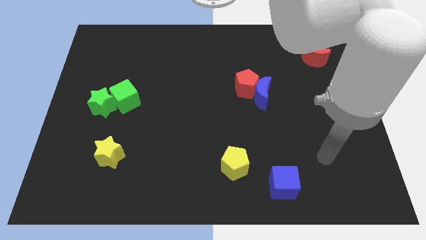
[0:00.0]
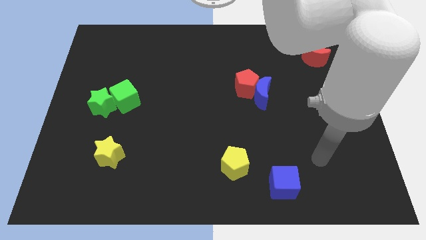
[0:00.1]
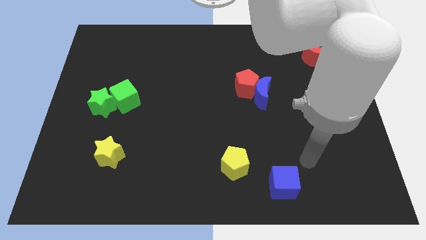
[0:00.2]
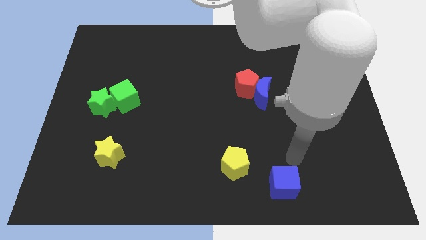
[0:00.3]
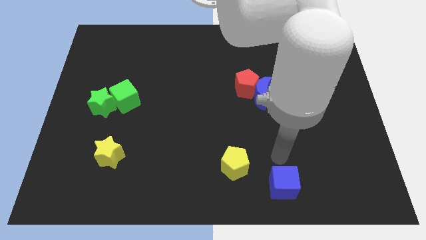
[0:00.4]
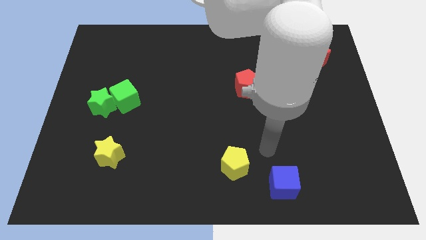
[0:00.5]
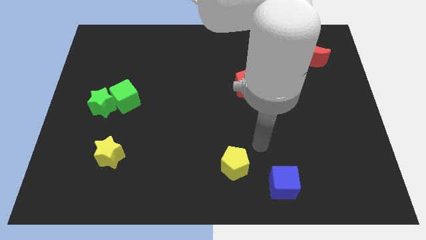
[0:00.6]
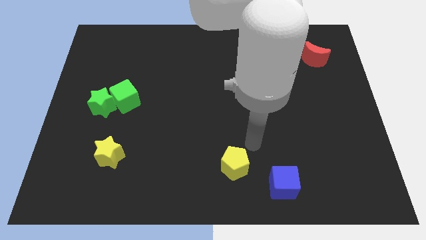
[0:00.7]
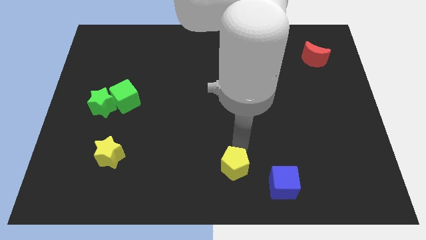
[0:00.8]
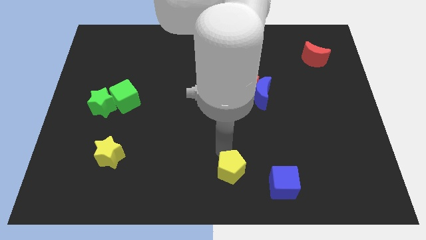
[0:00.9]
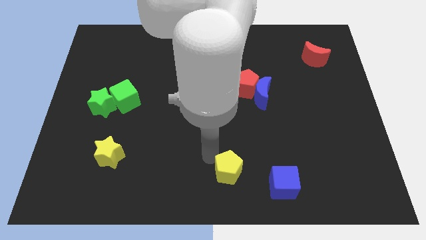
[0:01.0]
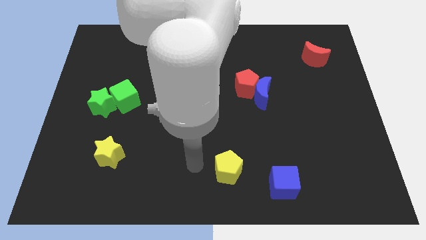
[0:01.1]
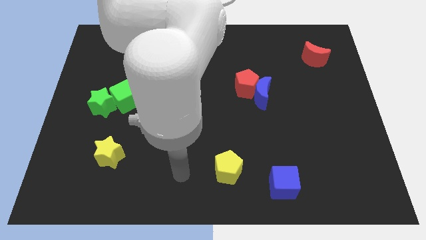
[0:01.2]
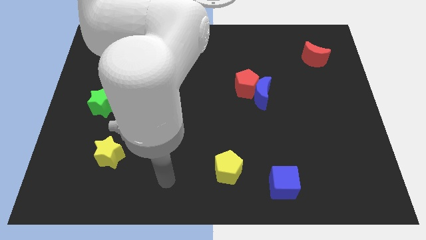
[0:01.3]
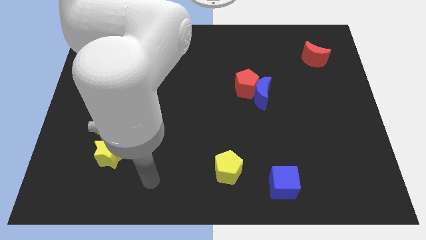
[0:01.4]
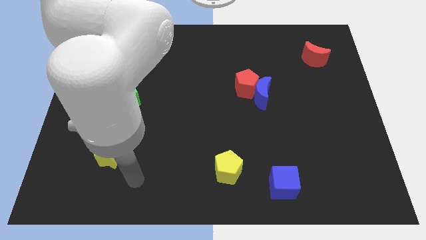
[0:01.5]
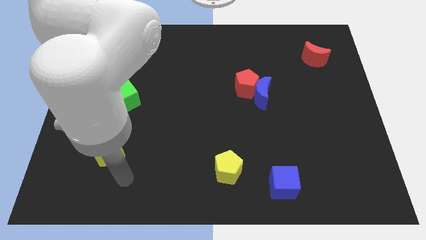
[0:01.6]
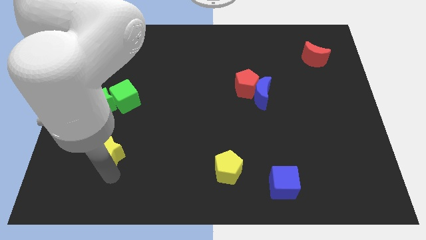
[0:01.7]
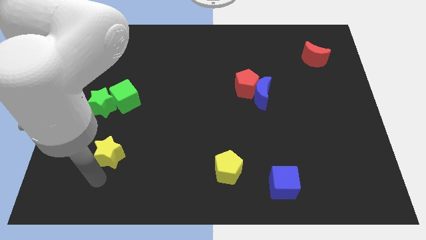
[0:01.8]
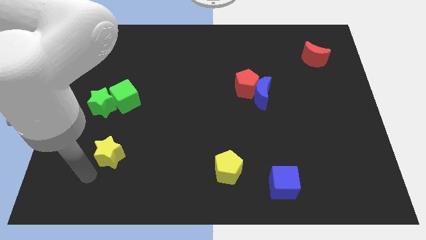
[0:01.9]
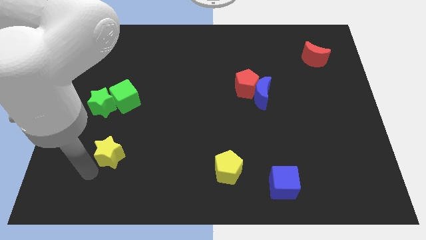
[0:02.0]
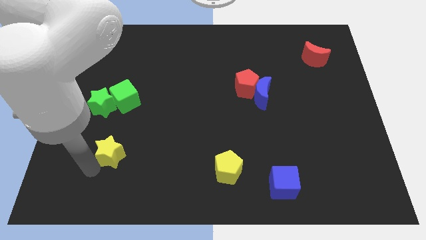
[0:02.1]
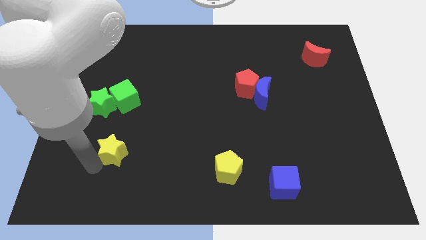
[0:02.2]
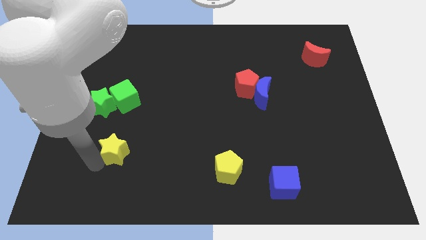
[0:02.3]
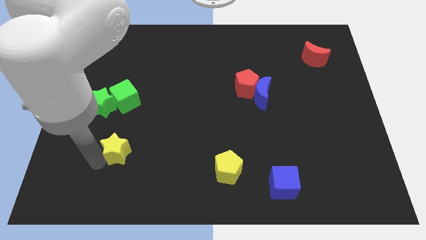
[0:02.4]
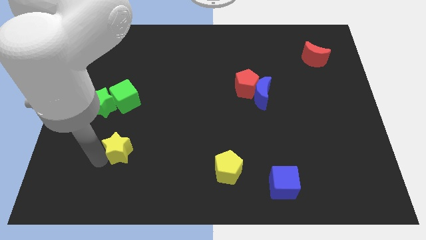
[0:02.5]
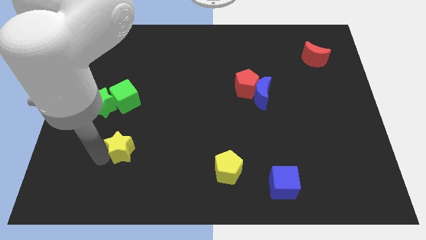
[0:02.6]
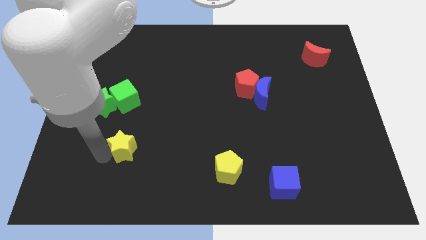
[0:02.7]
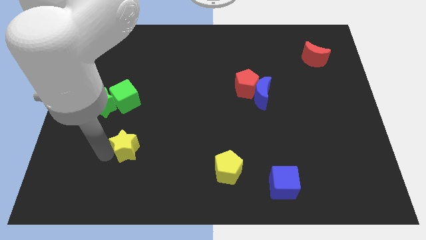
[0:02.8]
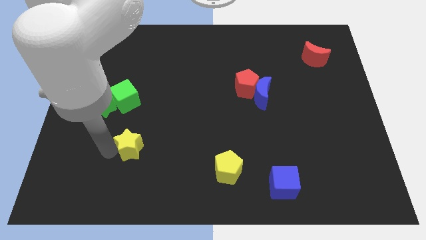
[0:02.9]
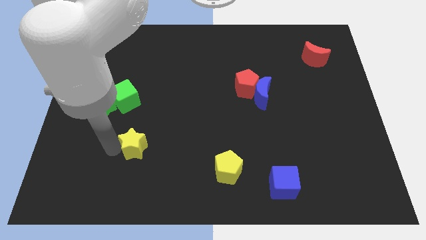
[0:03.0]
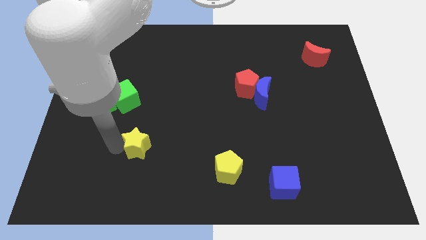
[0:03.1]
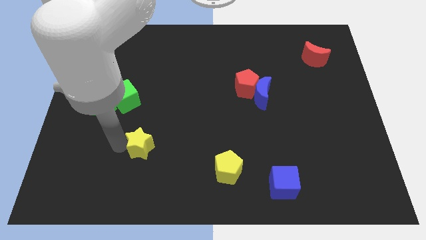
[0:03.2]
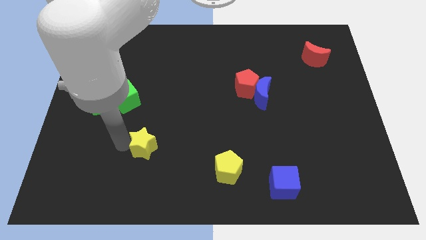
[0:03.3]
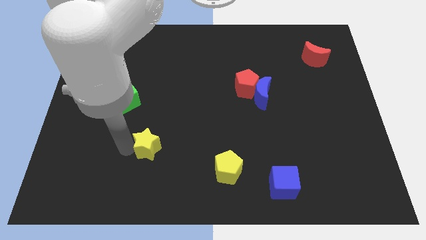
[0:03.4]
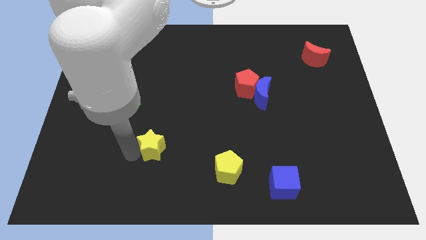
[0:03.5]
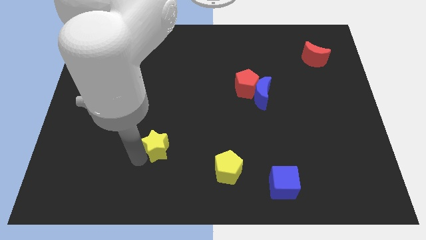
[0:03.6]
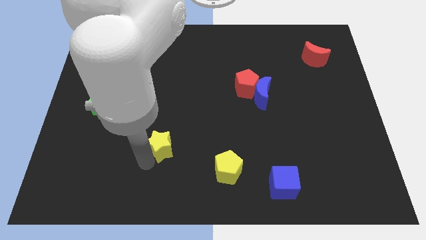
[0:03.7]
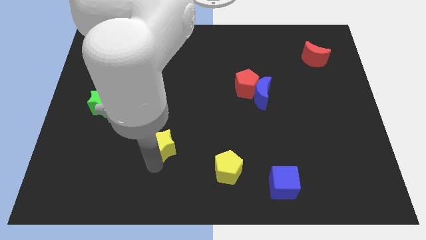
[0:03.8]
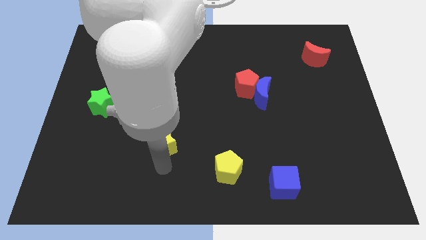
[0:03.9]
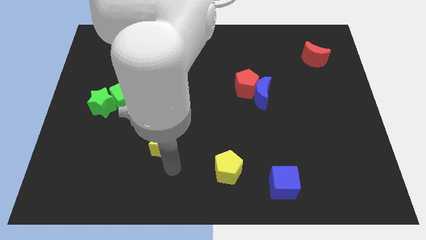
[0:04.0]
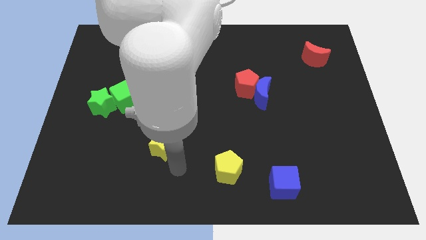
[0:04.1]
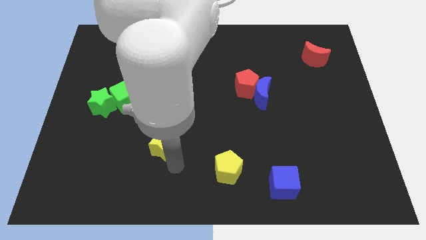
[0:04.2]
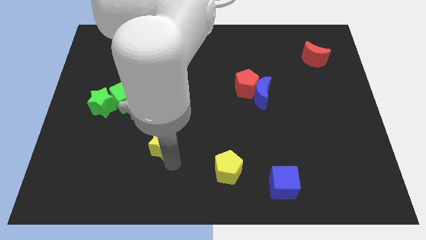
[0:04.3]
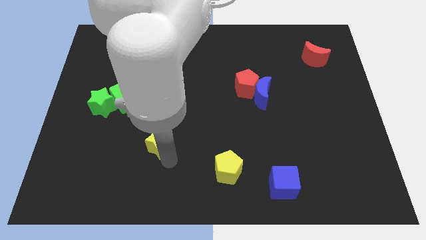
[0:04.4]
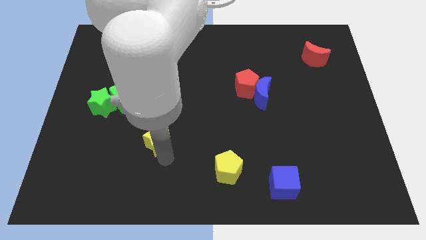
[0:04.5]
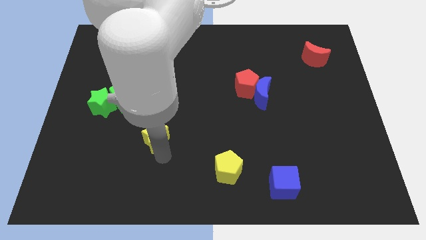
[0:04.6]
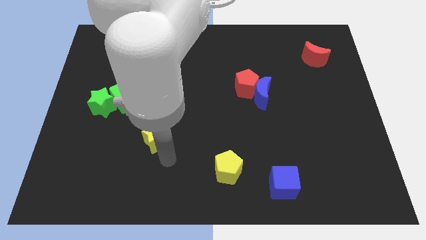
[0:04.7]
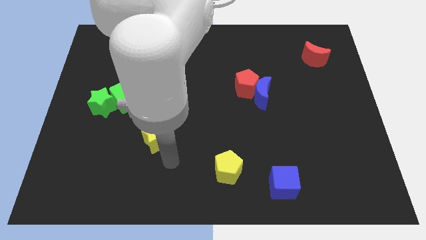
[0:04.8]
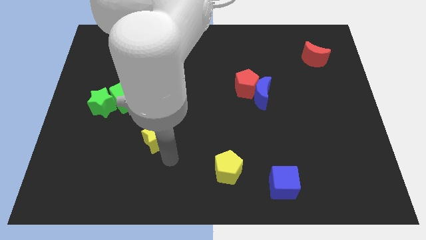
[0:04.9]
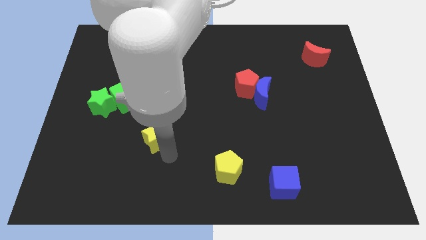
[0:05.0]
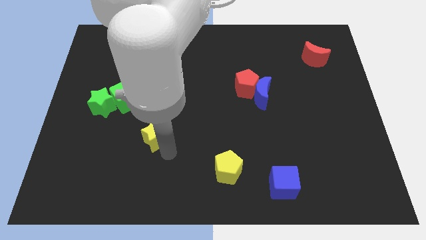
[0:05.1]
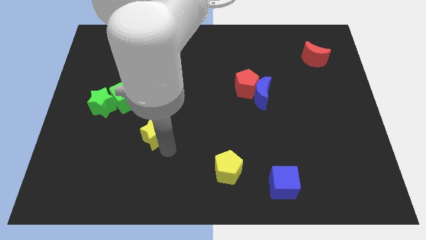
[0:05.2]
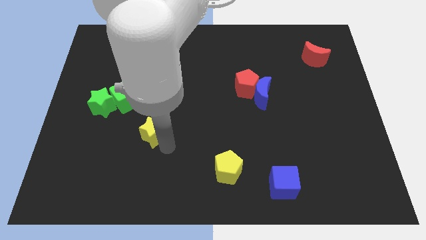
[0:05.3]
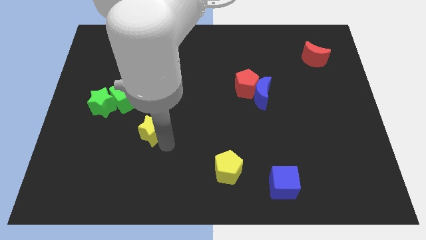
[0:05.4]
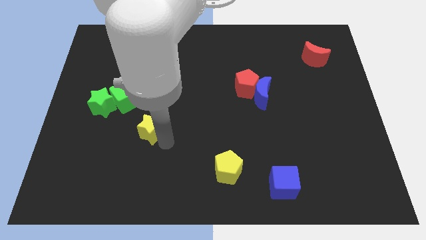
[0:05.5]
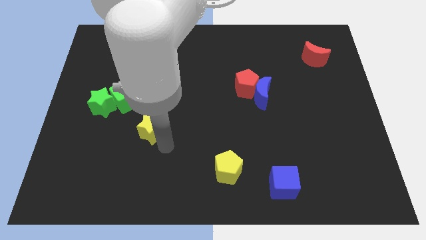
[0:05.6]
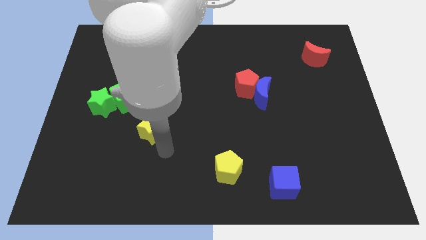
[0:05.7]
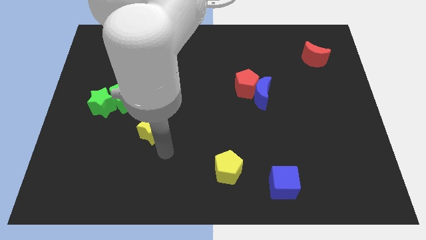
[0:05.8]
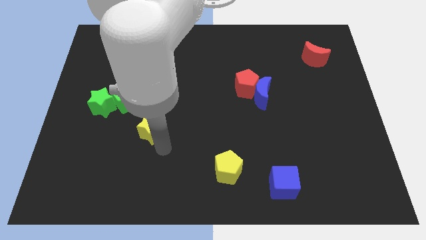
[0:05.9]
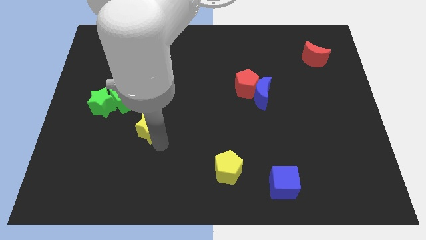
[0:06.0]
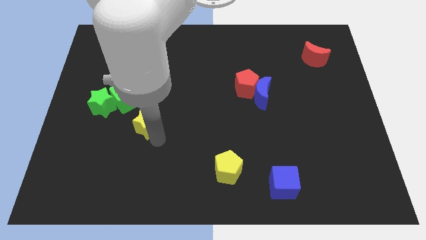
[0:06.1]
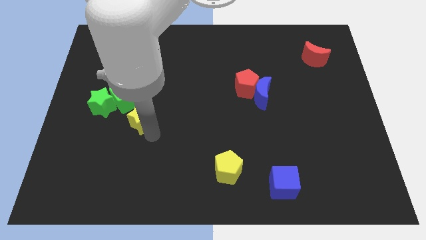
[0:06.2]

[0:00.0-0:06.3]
push the yellow star a little upwards

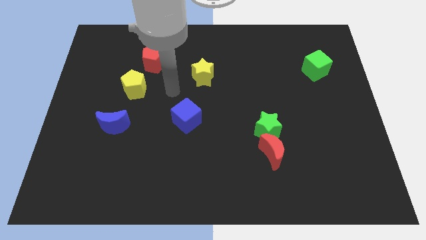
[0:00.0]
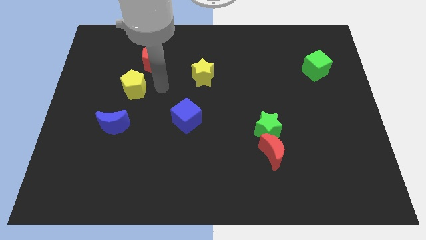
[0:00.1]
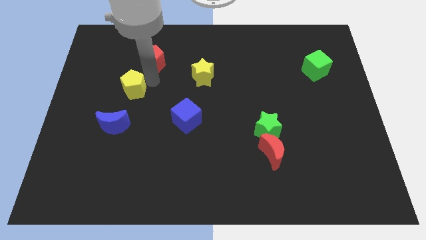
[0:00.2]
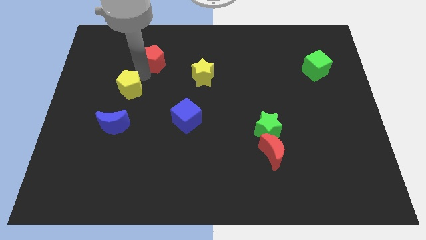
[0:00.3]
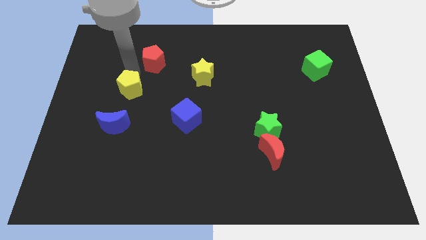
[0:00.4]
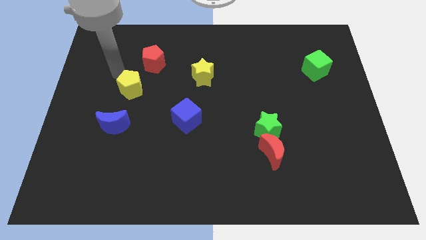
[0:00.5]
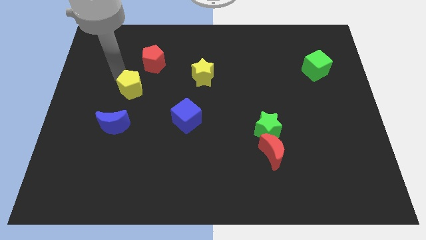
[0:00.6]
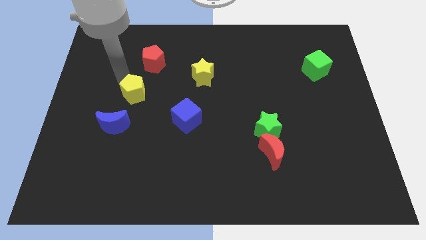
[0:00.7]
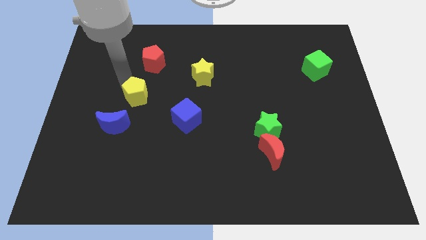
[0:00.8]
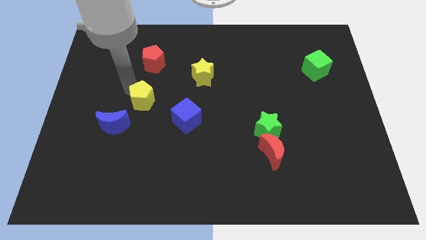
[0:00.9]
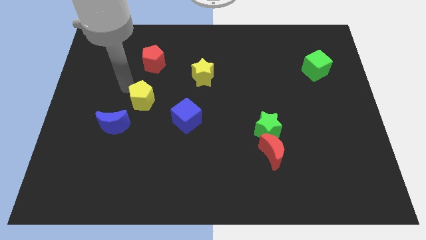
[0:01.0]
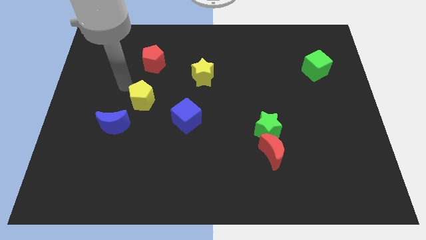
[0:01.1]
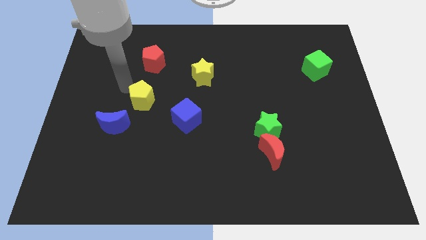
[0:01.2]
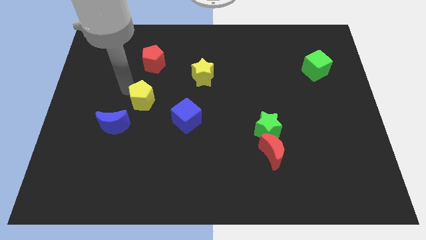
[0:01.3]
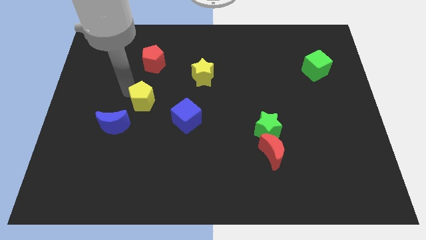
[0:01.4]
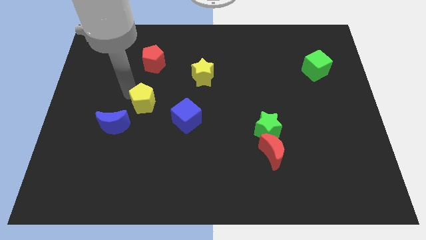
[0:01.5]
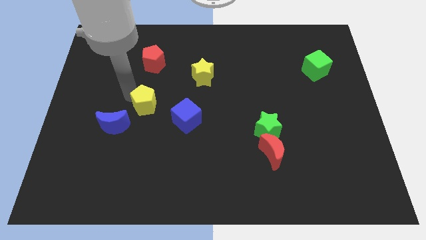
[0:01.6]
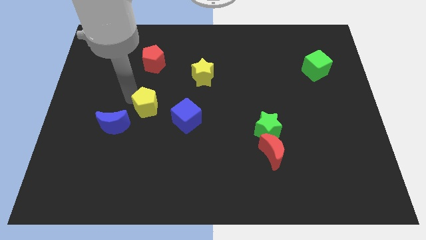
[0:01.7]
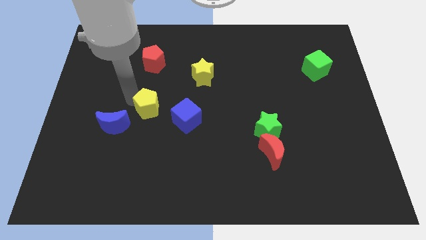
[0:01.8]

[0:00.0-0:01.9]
move the yellow pentagon down and then right slightly

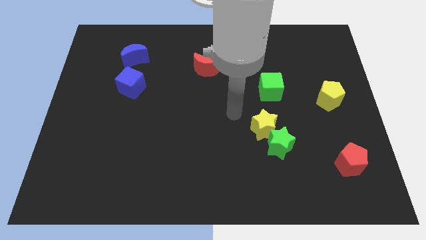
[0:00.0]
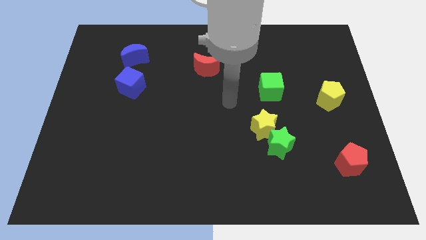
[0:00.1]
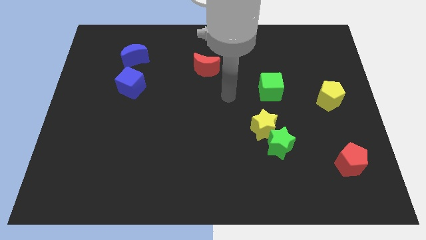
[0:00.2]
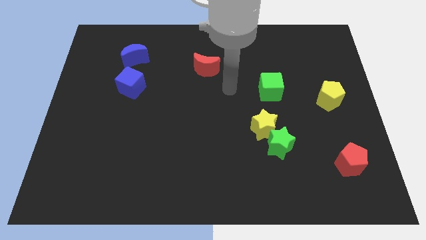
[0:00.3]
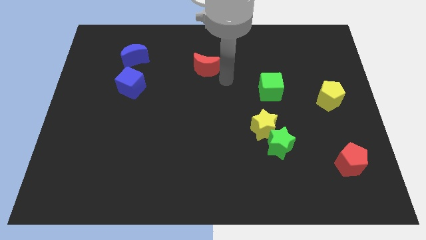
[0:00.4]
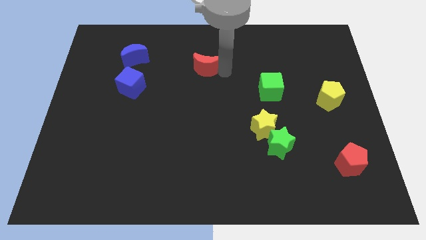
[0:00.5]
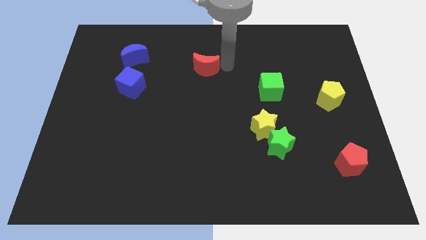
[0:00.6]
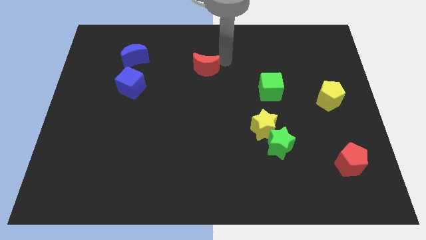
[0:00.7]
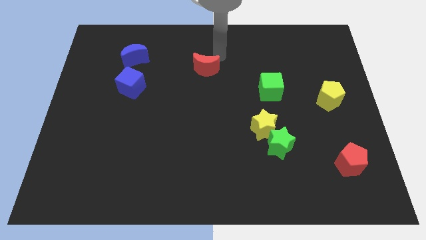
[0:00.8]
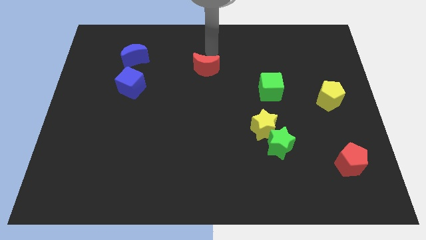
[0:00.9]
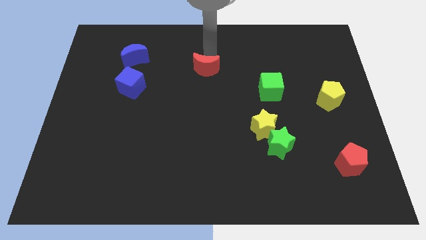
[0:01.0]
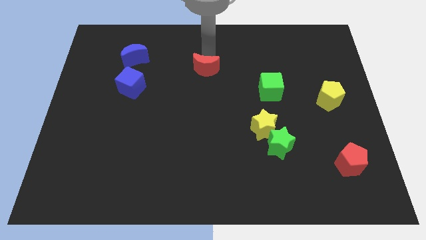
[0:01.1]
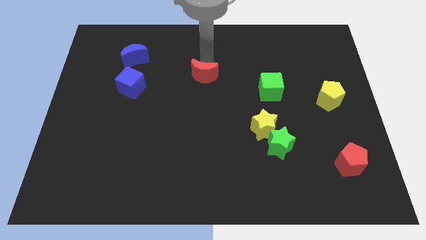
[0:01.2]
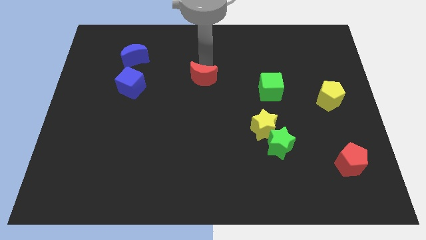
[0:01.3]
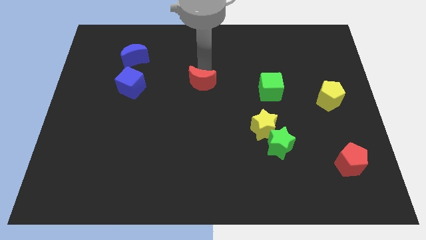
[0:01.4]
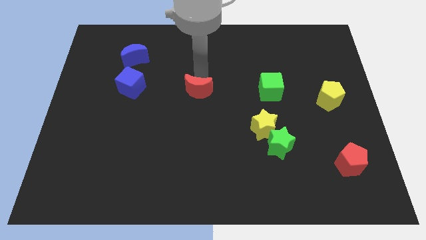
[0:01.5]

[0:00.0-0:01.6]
slightly slide the red moon down
